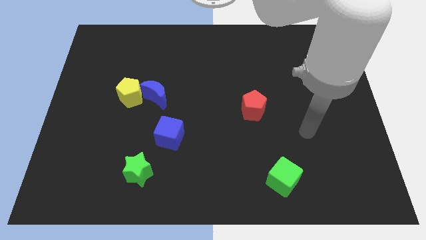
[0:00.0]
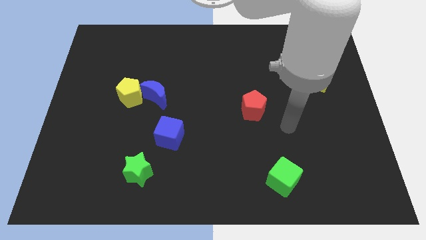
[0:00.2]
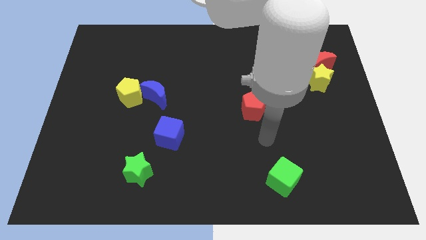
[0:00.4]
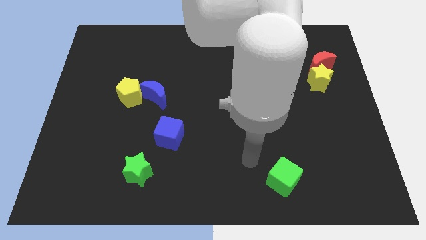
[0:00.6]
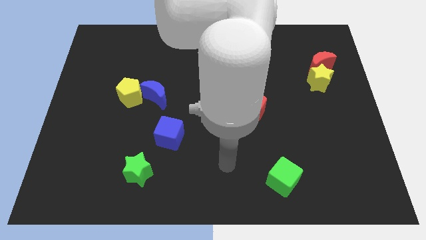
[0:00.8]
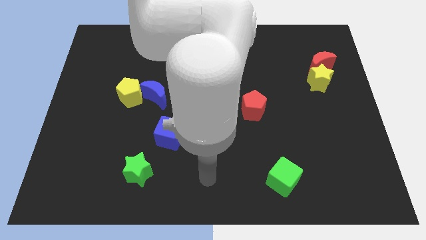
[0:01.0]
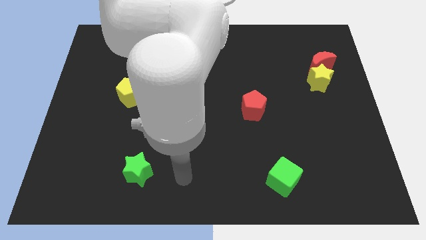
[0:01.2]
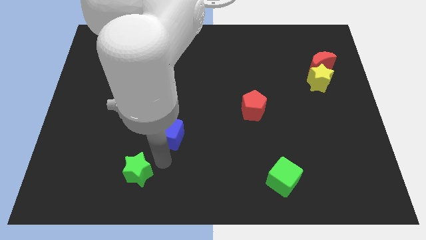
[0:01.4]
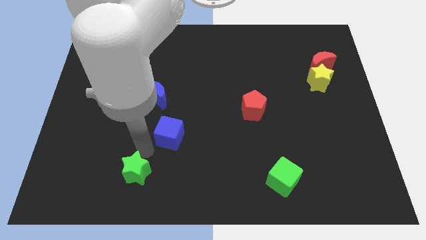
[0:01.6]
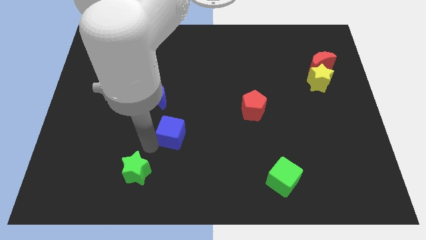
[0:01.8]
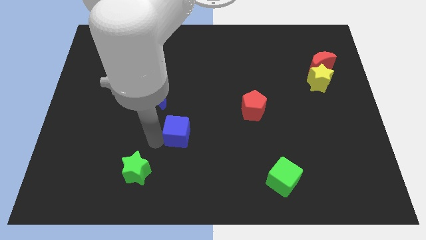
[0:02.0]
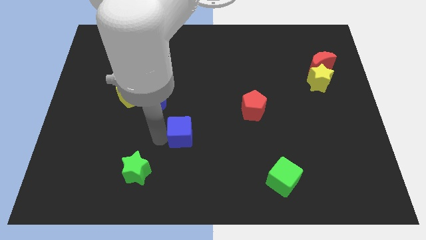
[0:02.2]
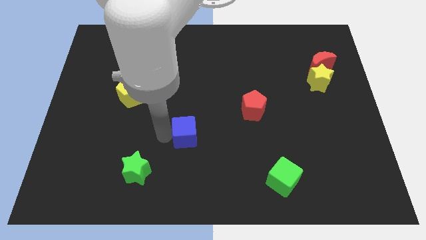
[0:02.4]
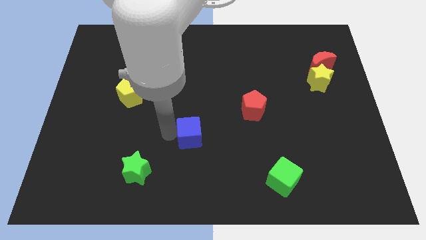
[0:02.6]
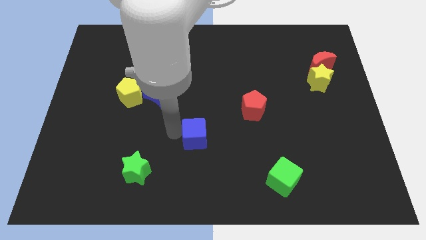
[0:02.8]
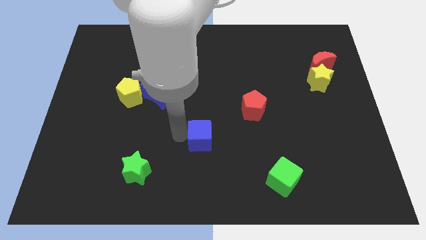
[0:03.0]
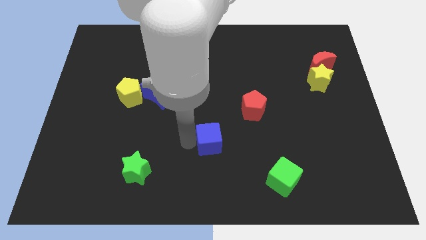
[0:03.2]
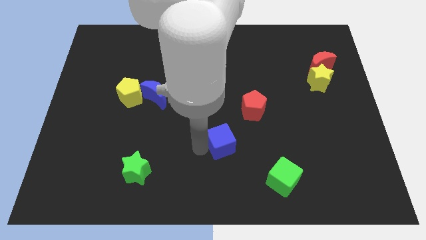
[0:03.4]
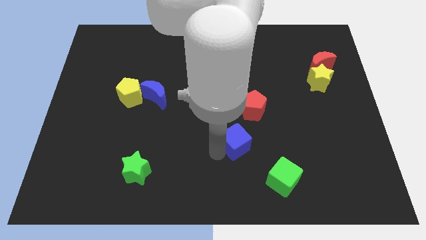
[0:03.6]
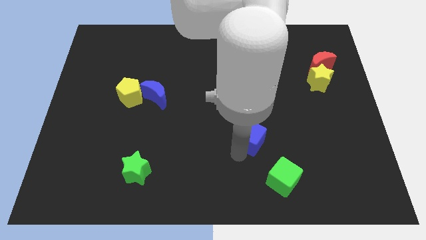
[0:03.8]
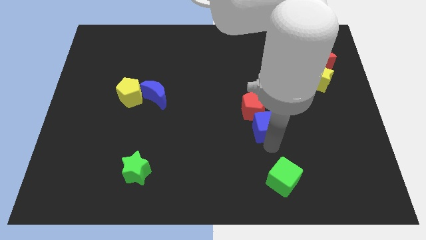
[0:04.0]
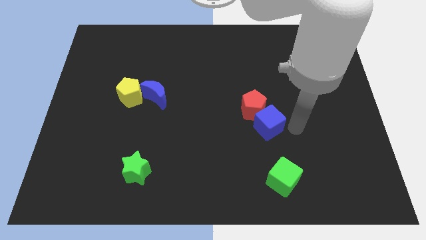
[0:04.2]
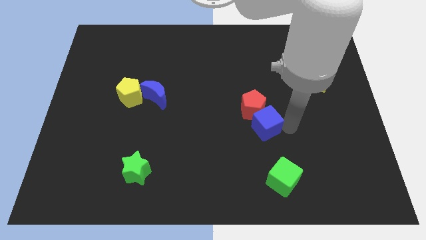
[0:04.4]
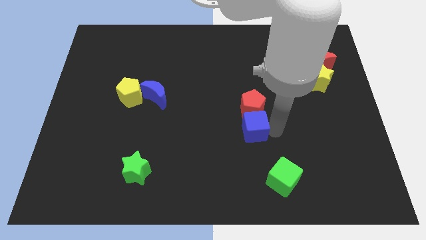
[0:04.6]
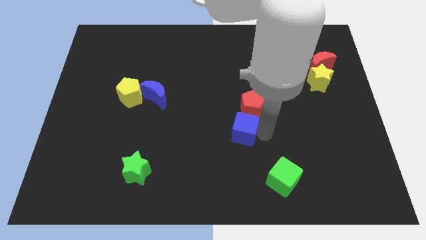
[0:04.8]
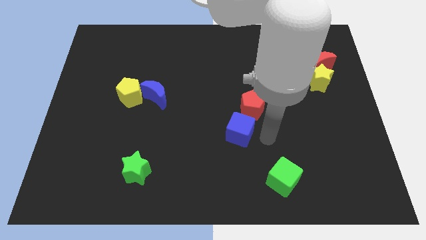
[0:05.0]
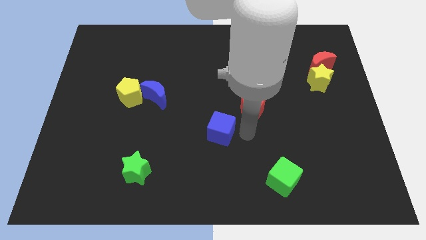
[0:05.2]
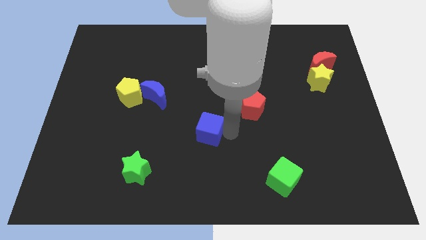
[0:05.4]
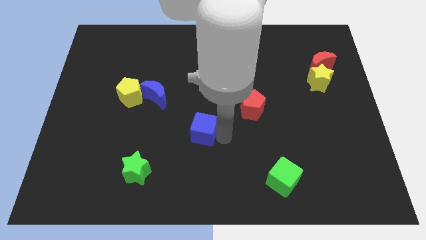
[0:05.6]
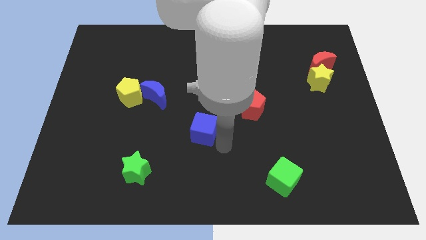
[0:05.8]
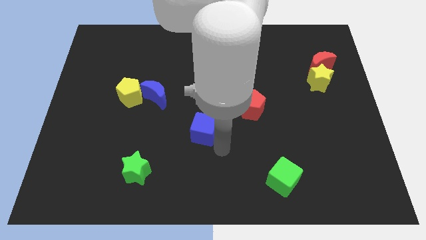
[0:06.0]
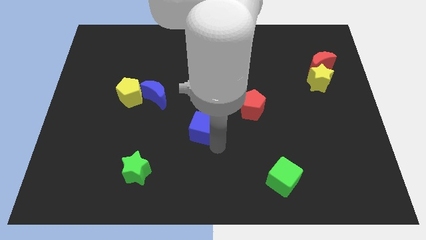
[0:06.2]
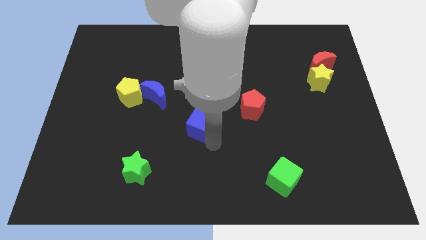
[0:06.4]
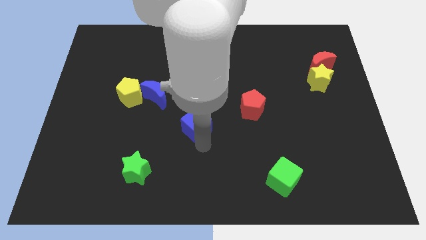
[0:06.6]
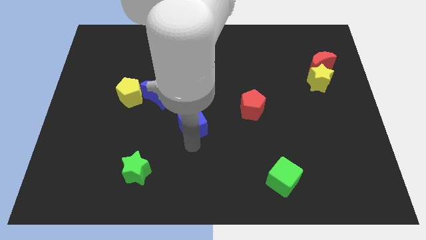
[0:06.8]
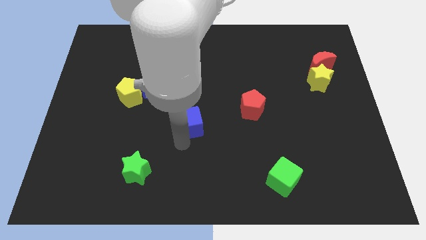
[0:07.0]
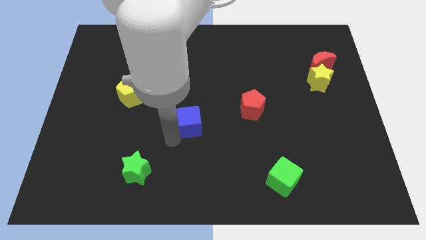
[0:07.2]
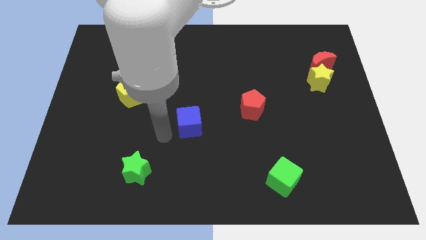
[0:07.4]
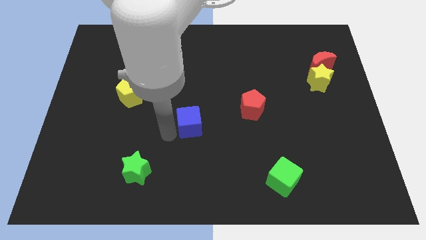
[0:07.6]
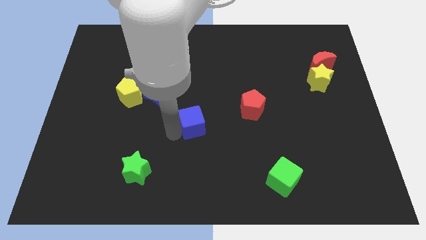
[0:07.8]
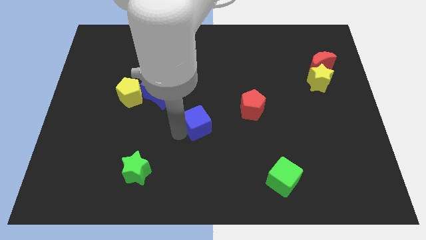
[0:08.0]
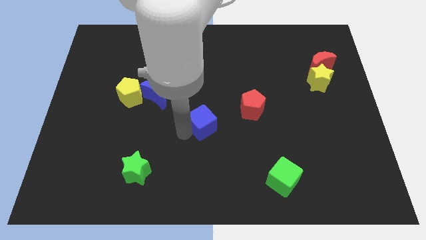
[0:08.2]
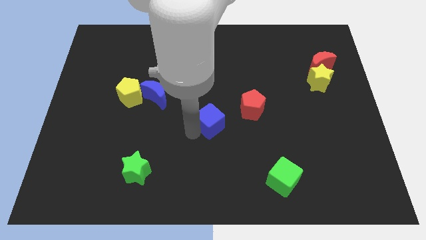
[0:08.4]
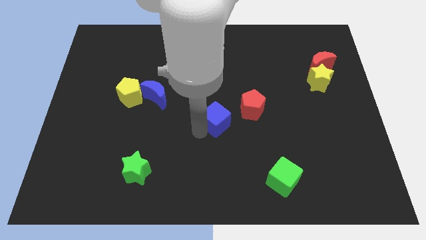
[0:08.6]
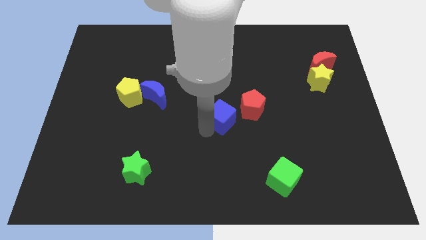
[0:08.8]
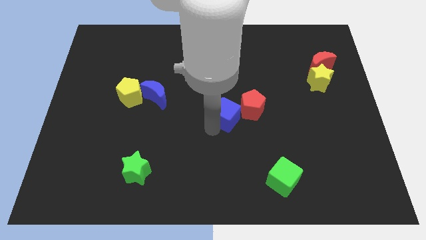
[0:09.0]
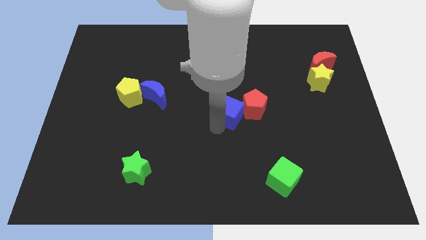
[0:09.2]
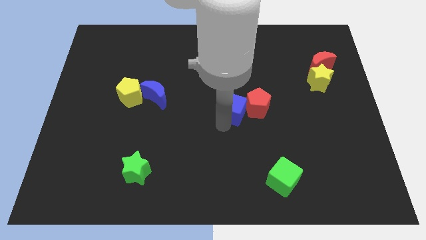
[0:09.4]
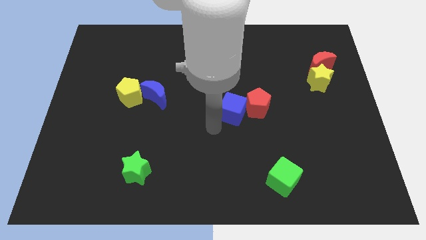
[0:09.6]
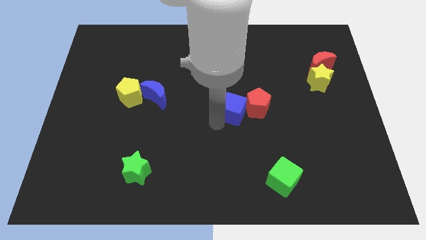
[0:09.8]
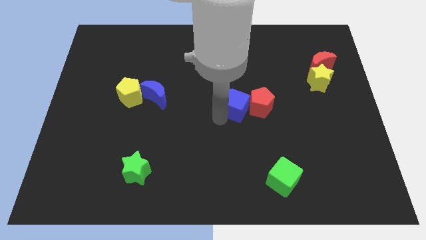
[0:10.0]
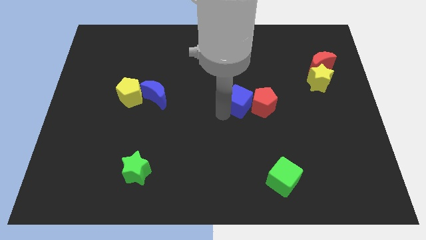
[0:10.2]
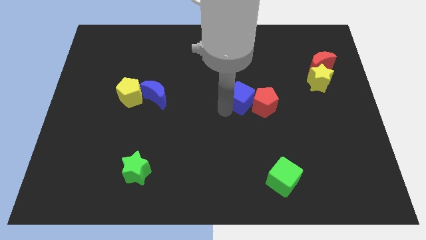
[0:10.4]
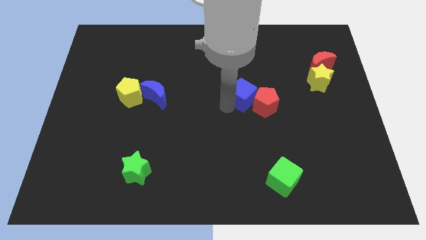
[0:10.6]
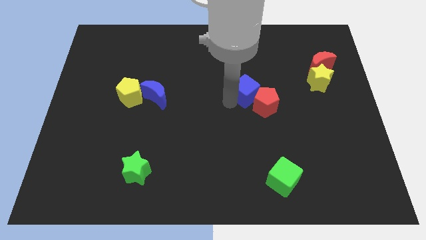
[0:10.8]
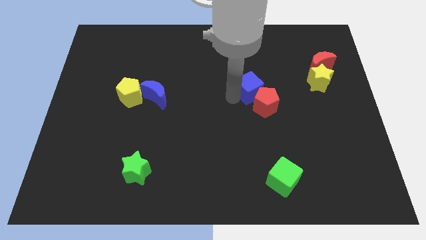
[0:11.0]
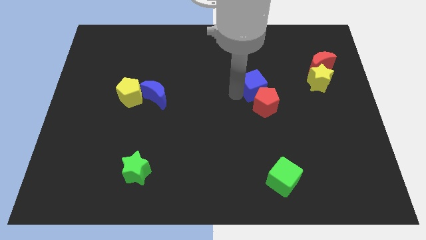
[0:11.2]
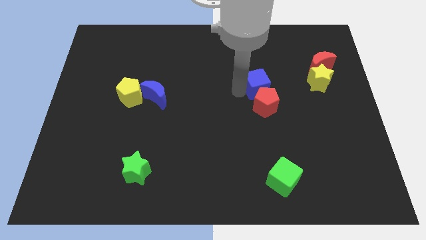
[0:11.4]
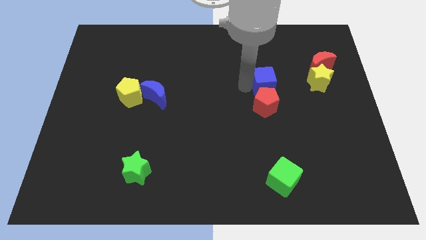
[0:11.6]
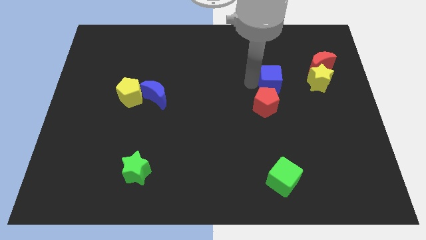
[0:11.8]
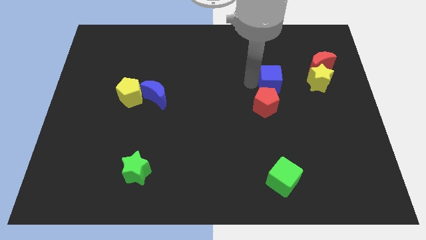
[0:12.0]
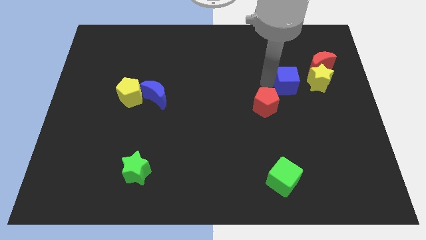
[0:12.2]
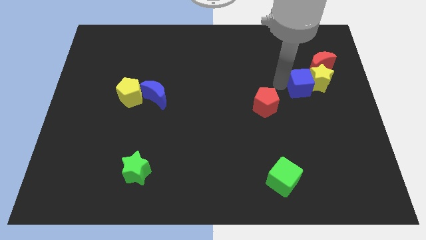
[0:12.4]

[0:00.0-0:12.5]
move the blue cube to the yellow star
